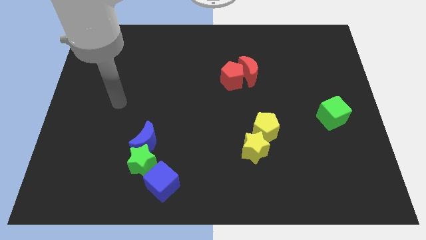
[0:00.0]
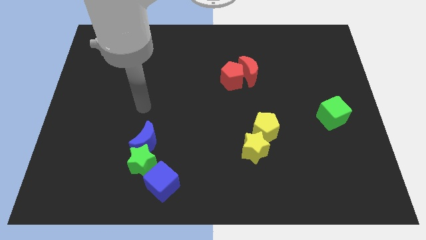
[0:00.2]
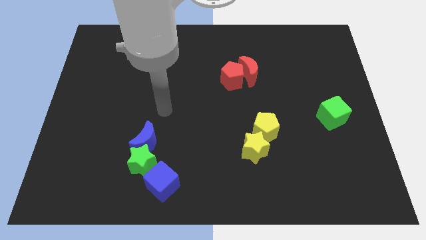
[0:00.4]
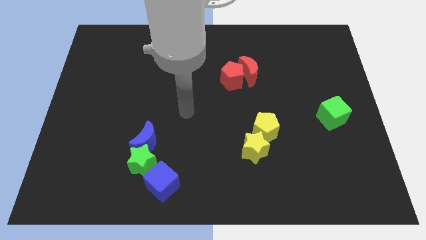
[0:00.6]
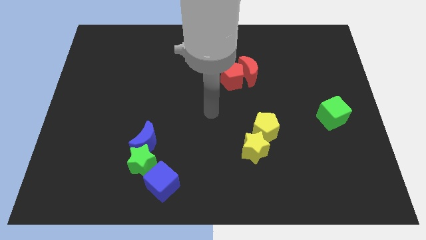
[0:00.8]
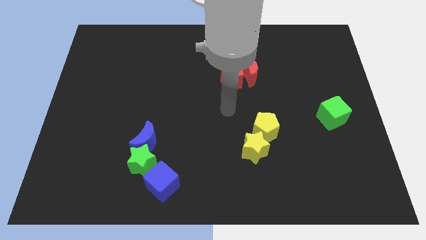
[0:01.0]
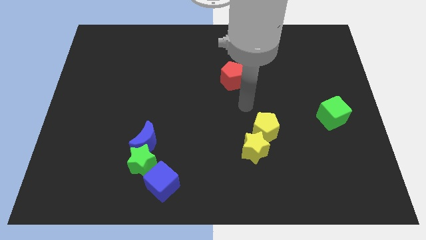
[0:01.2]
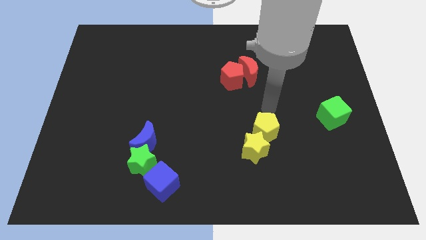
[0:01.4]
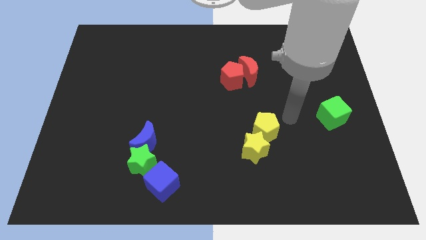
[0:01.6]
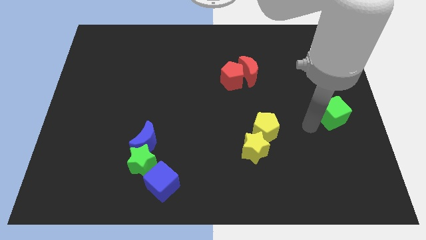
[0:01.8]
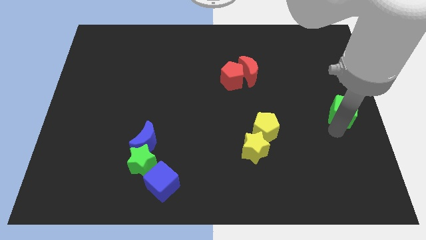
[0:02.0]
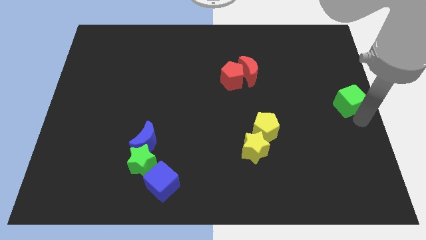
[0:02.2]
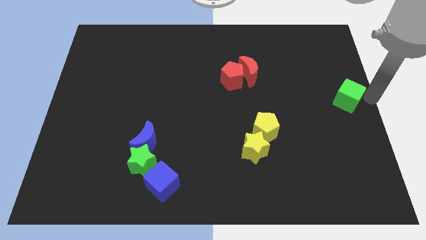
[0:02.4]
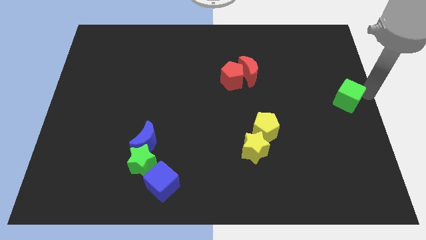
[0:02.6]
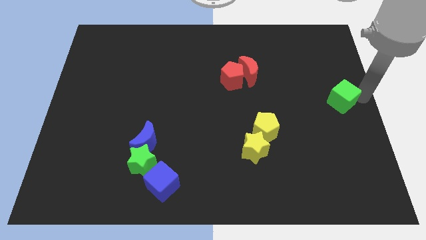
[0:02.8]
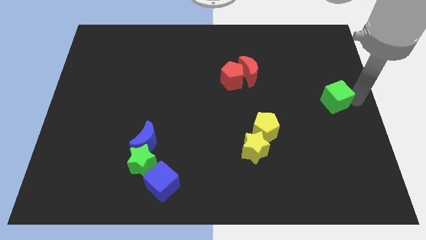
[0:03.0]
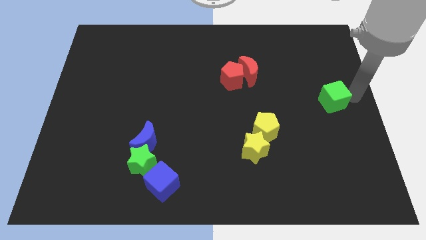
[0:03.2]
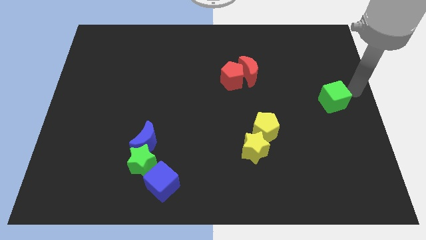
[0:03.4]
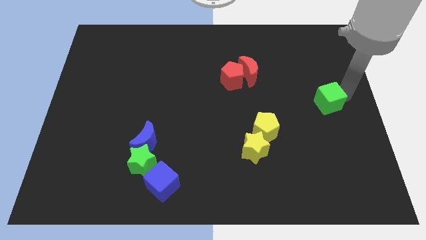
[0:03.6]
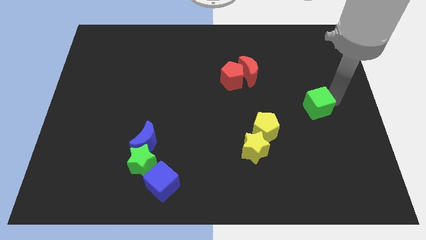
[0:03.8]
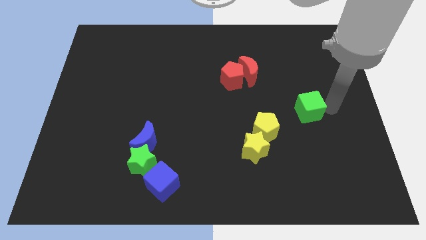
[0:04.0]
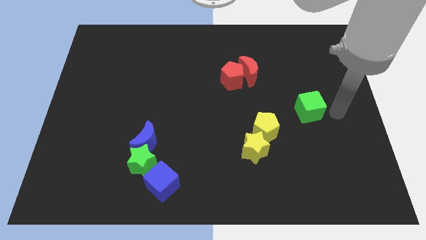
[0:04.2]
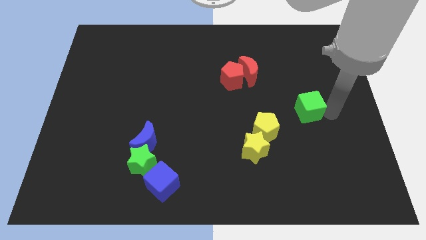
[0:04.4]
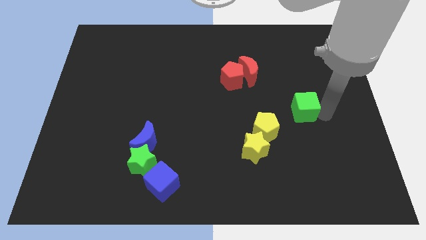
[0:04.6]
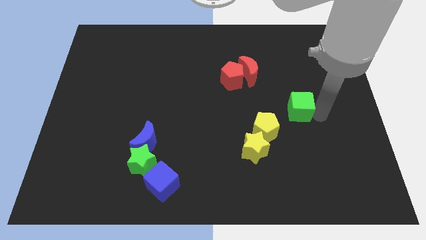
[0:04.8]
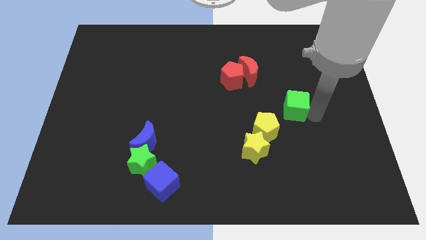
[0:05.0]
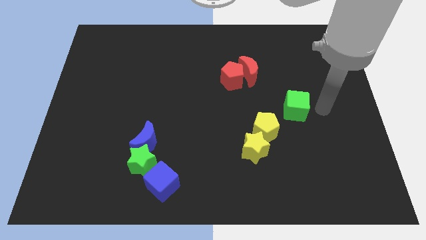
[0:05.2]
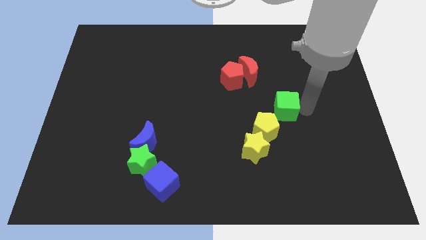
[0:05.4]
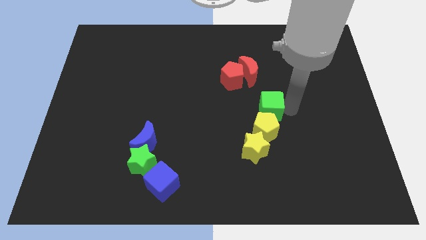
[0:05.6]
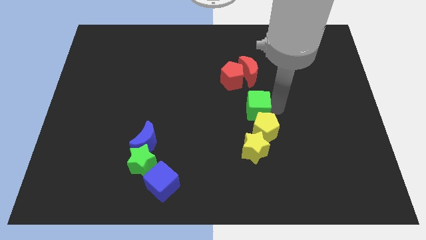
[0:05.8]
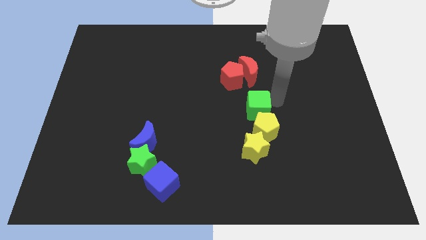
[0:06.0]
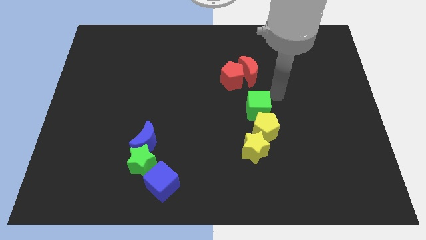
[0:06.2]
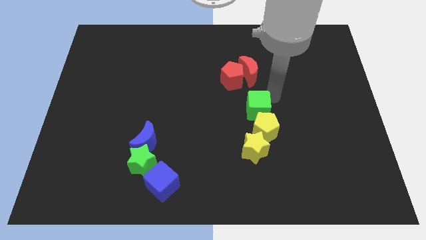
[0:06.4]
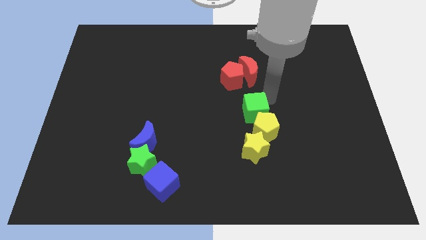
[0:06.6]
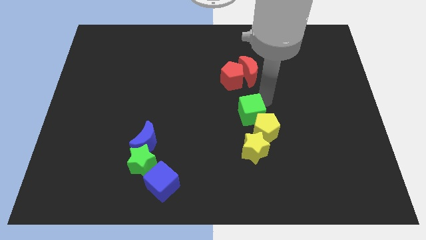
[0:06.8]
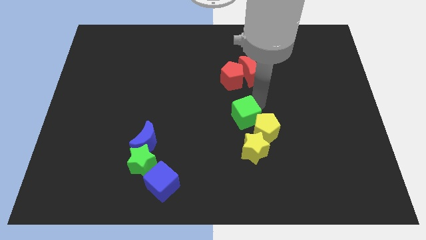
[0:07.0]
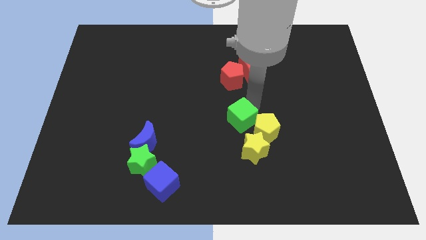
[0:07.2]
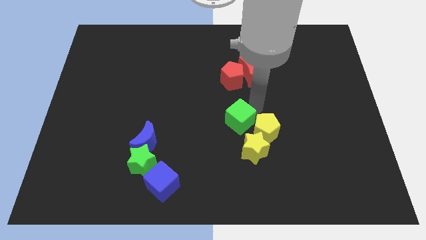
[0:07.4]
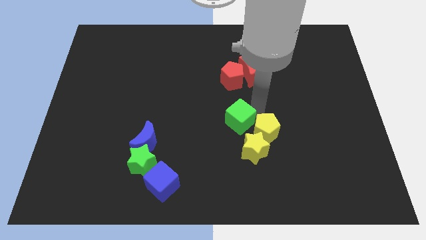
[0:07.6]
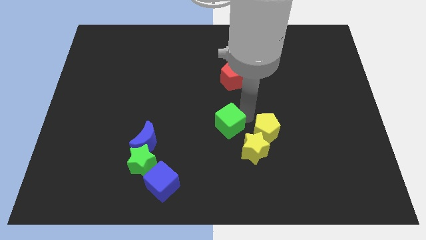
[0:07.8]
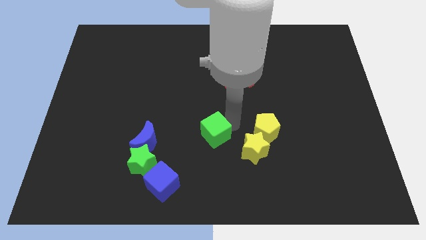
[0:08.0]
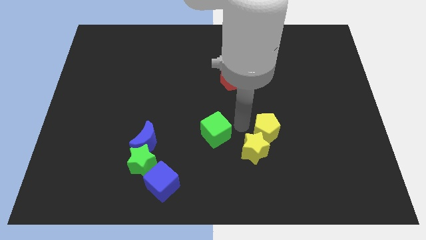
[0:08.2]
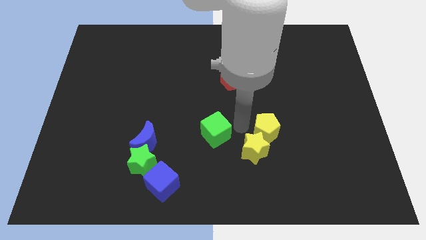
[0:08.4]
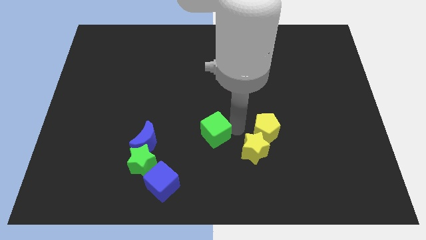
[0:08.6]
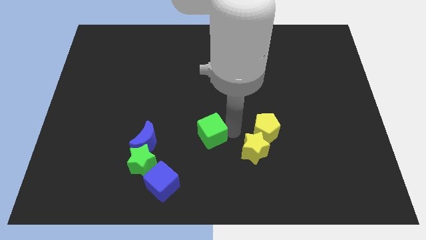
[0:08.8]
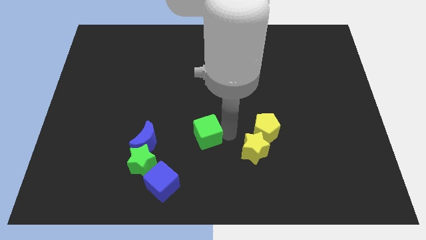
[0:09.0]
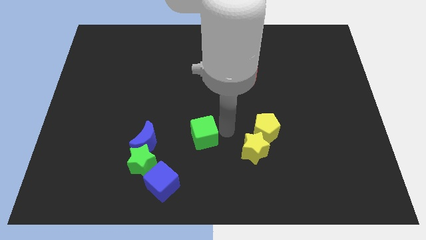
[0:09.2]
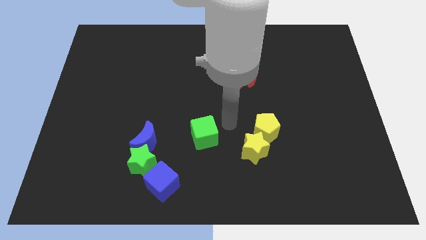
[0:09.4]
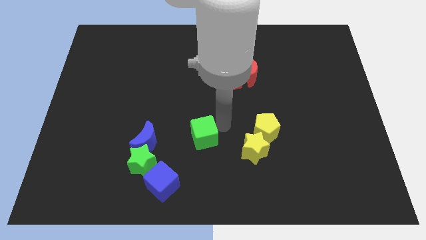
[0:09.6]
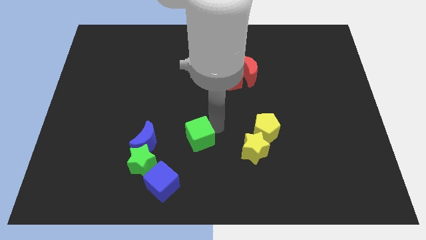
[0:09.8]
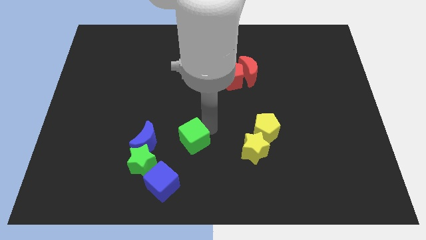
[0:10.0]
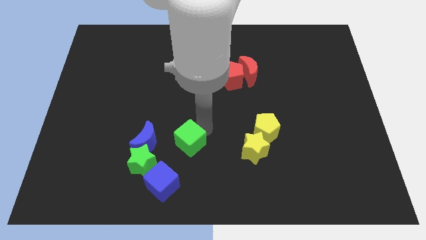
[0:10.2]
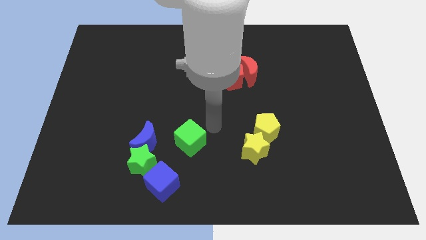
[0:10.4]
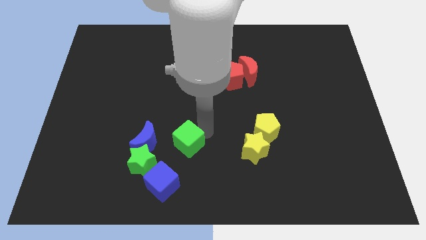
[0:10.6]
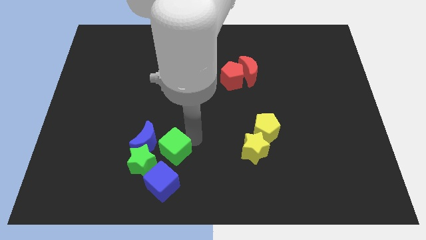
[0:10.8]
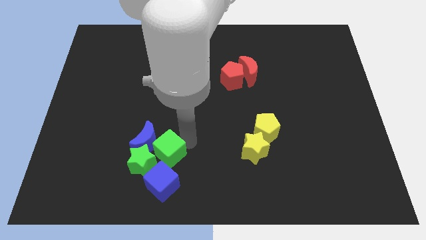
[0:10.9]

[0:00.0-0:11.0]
put the green cube close to the green star

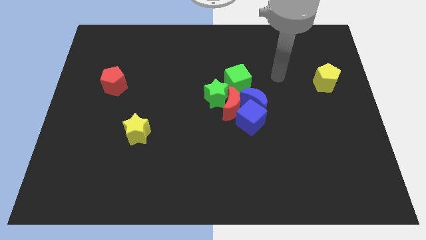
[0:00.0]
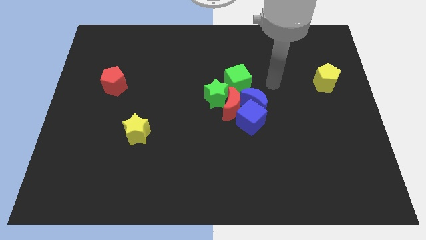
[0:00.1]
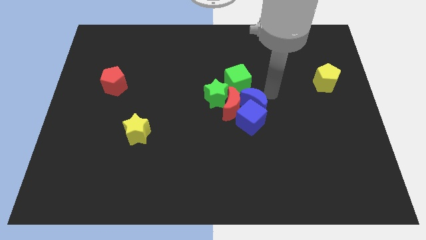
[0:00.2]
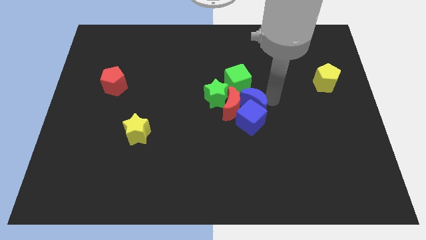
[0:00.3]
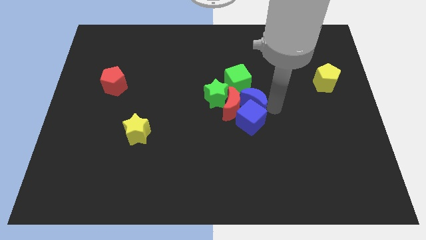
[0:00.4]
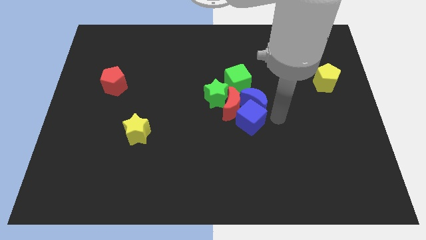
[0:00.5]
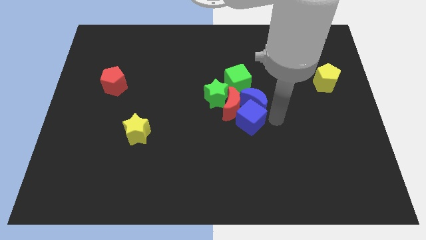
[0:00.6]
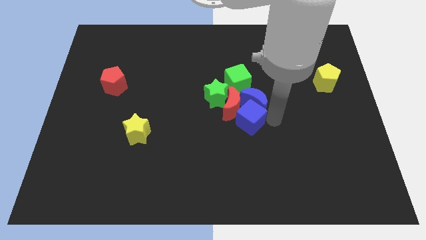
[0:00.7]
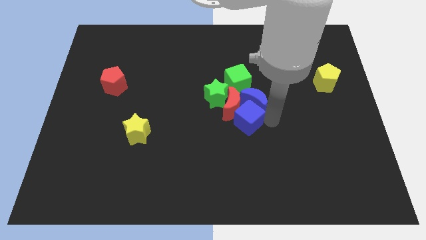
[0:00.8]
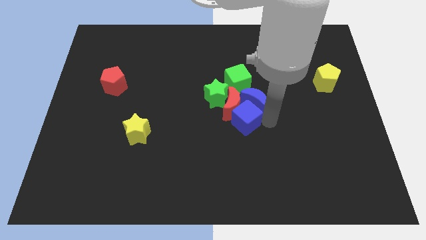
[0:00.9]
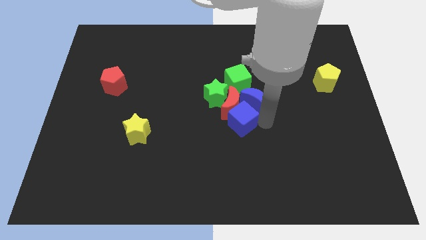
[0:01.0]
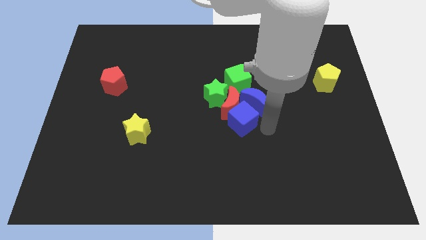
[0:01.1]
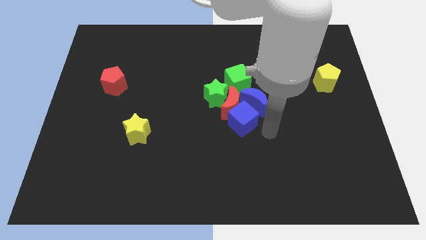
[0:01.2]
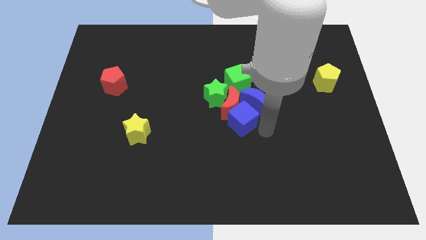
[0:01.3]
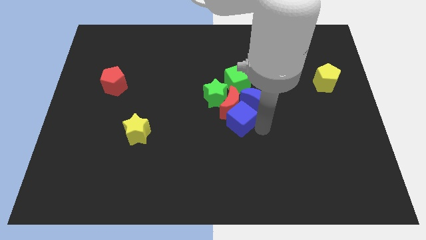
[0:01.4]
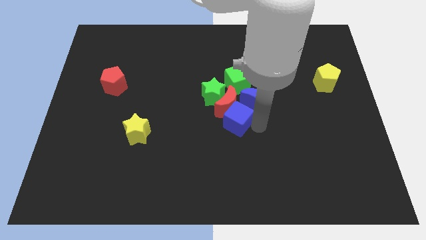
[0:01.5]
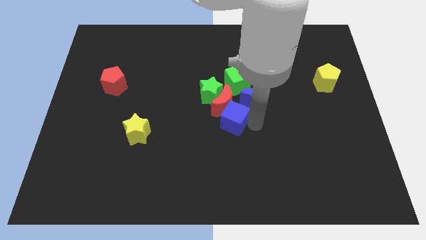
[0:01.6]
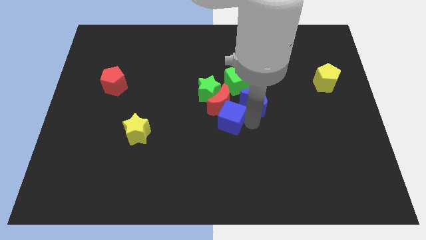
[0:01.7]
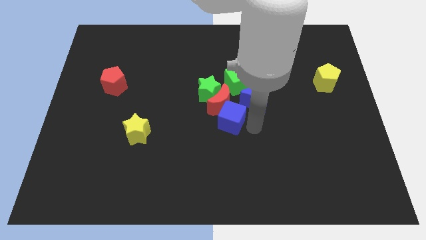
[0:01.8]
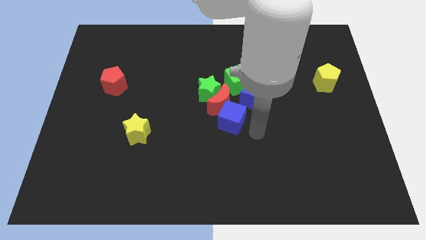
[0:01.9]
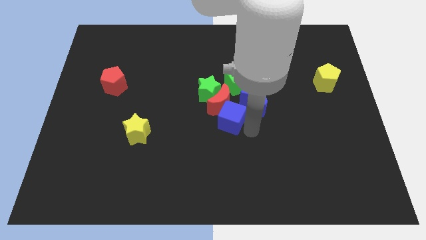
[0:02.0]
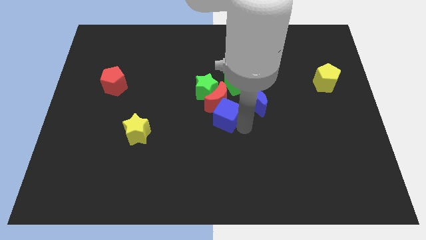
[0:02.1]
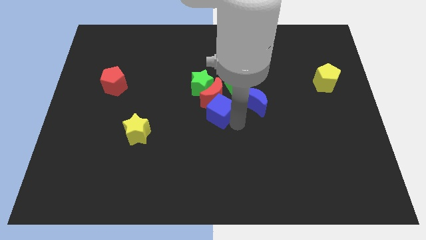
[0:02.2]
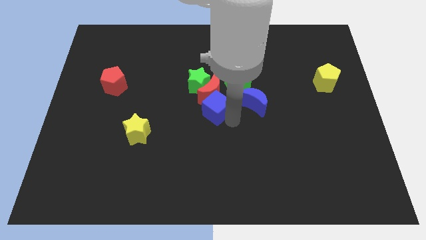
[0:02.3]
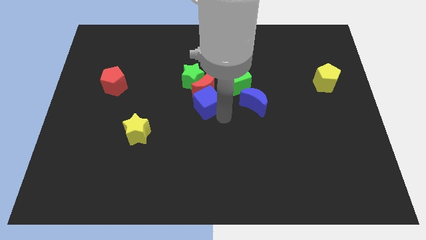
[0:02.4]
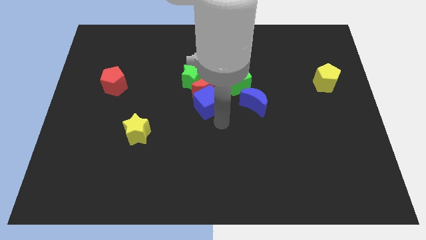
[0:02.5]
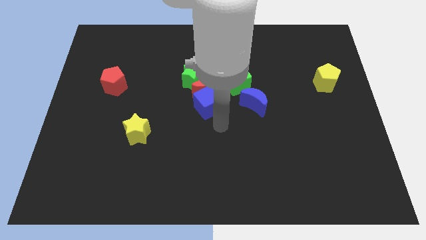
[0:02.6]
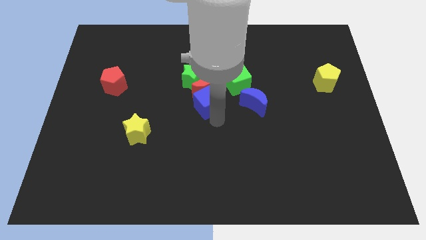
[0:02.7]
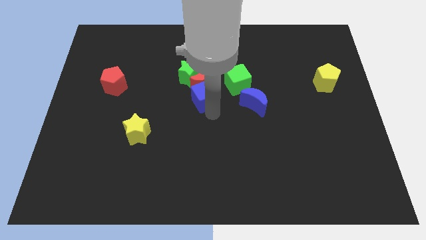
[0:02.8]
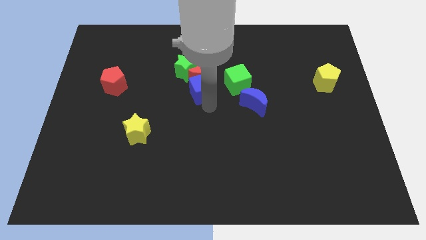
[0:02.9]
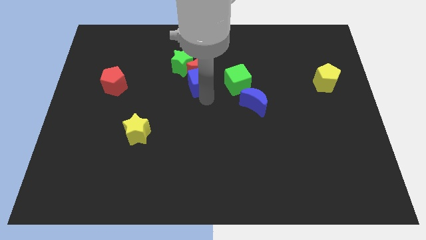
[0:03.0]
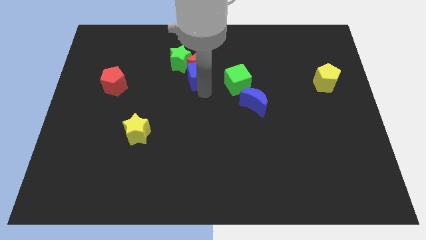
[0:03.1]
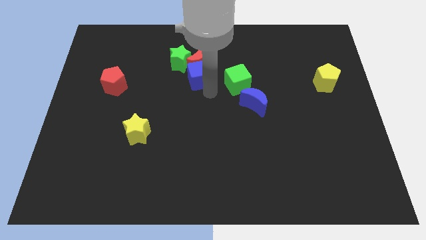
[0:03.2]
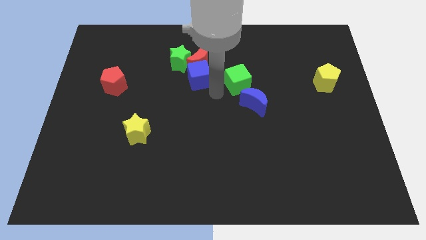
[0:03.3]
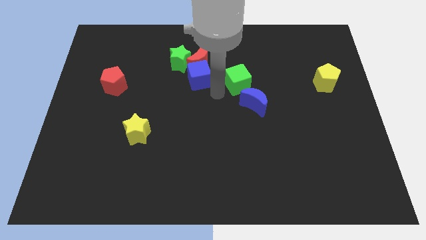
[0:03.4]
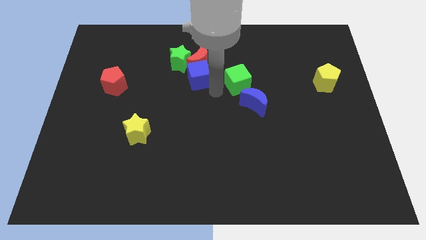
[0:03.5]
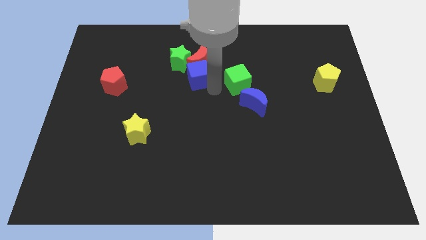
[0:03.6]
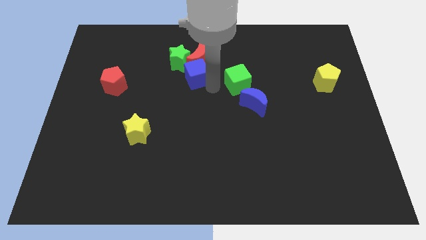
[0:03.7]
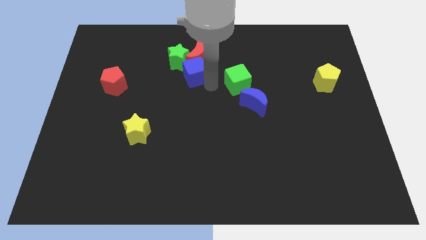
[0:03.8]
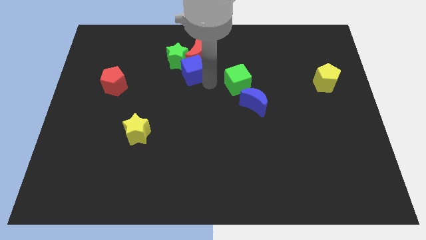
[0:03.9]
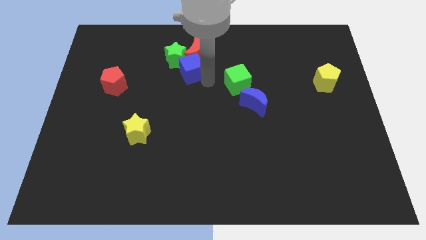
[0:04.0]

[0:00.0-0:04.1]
slide the blue cube towards the green star
